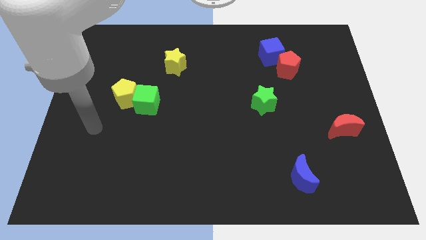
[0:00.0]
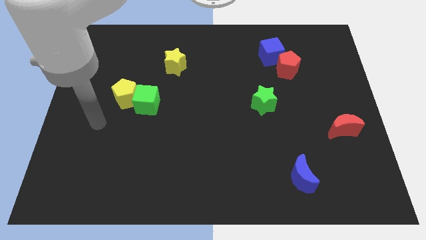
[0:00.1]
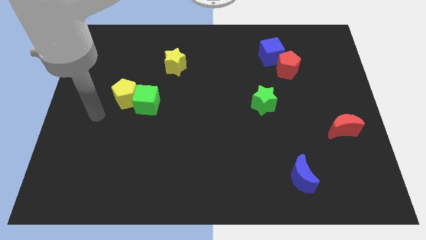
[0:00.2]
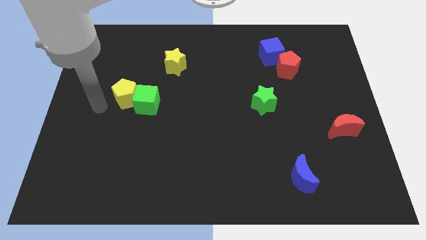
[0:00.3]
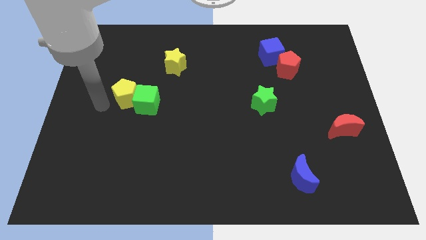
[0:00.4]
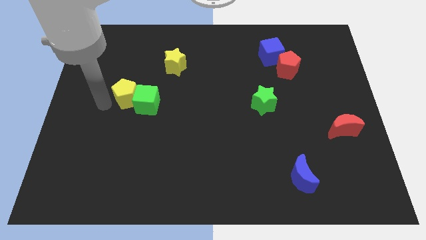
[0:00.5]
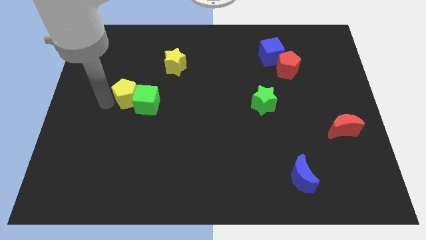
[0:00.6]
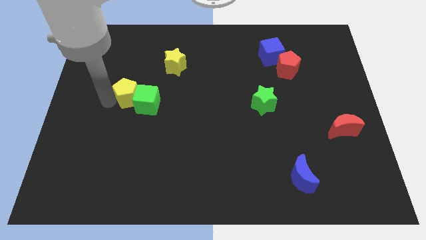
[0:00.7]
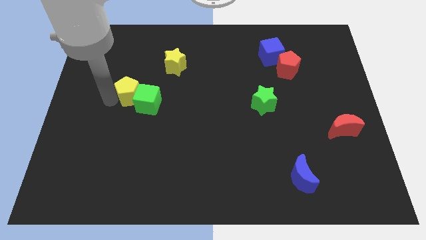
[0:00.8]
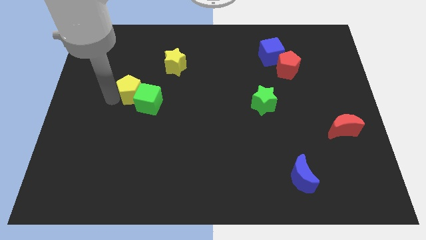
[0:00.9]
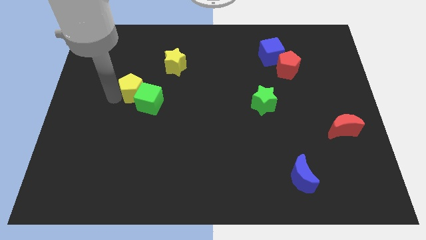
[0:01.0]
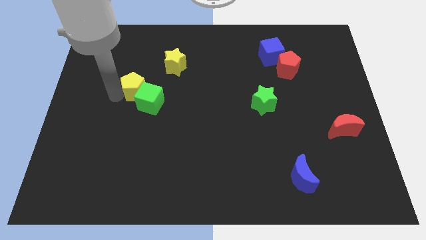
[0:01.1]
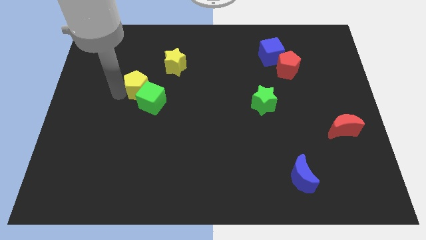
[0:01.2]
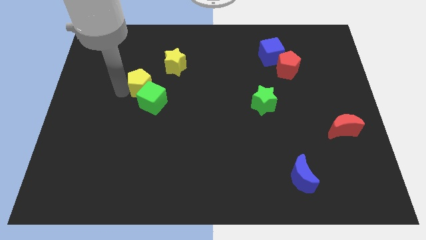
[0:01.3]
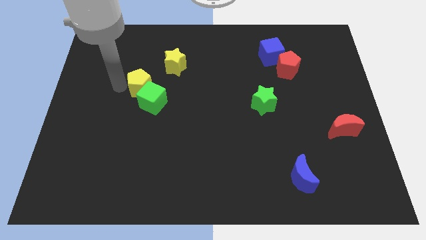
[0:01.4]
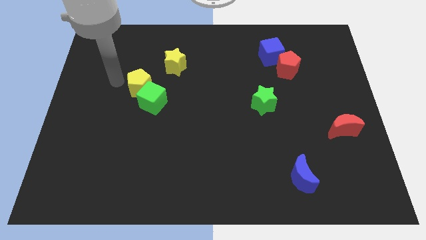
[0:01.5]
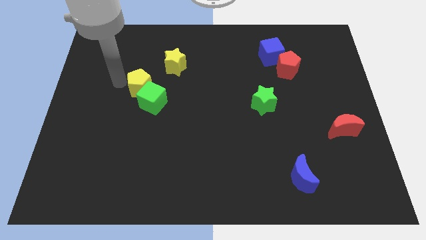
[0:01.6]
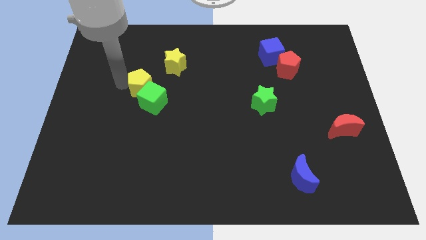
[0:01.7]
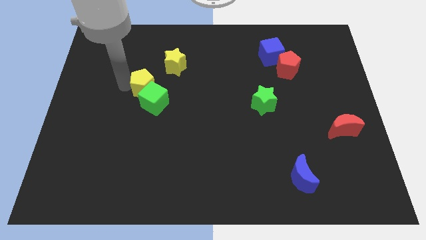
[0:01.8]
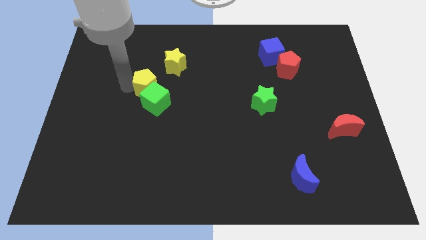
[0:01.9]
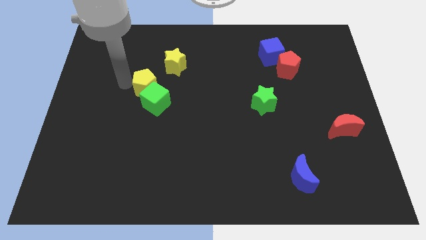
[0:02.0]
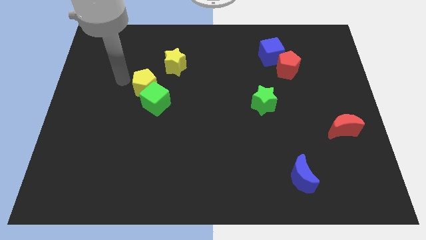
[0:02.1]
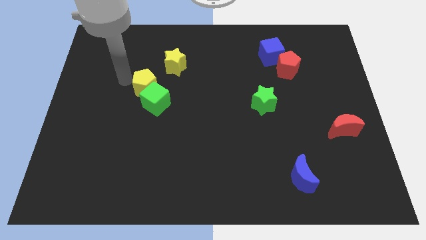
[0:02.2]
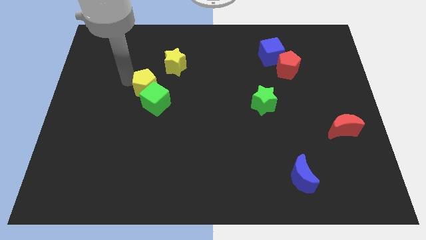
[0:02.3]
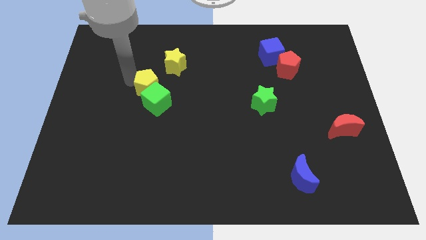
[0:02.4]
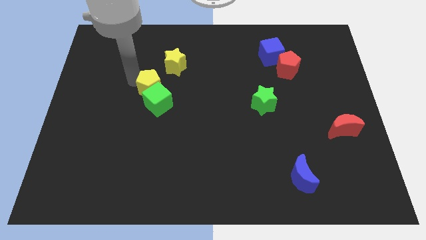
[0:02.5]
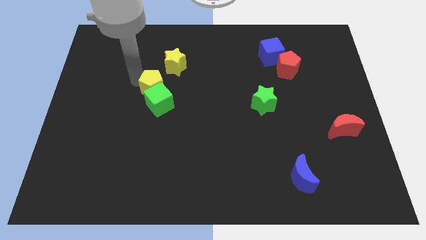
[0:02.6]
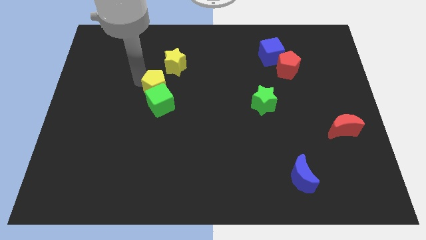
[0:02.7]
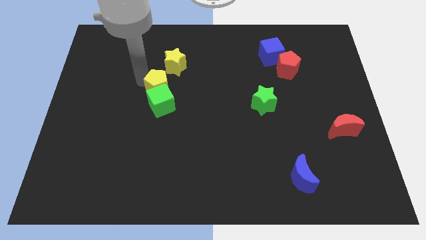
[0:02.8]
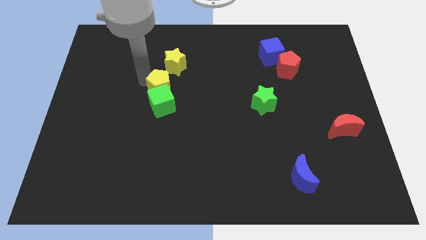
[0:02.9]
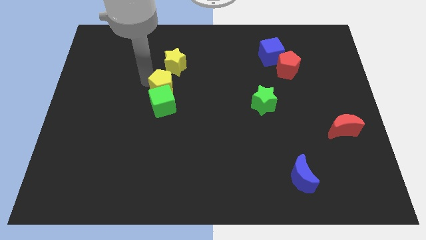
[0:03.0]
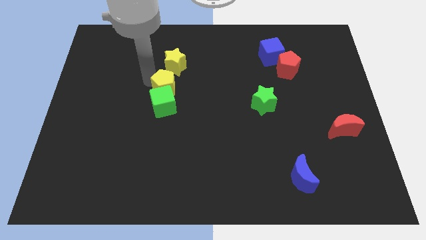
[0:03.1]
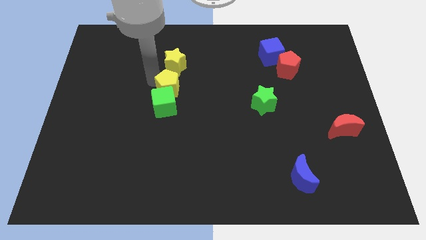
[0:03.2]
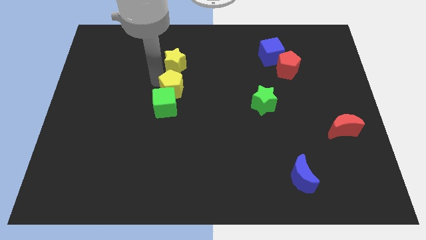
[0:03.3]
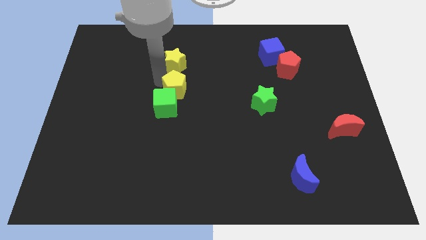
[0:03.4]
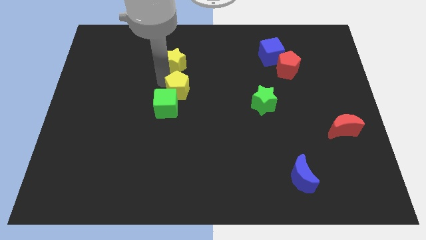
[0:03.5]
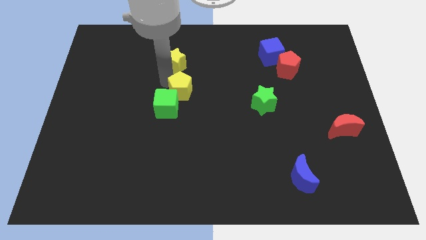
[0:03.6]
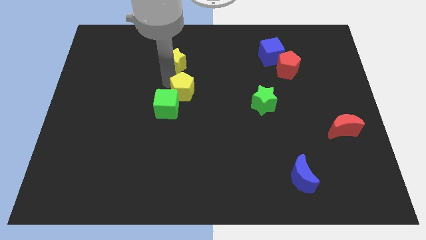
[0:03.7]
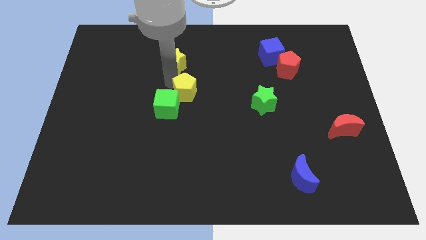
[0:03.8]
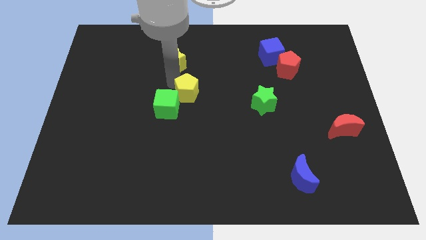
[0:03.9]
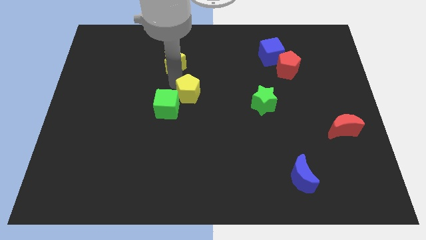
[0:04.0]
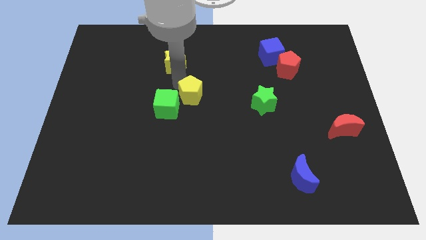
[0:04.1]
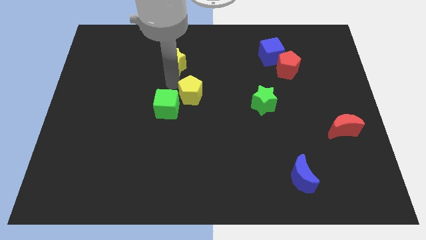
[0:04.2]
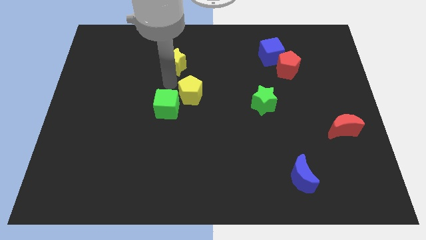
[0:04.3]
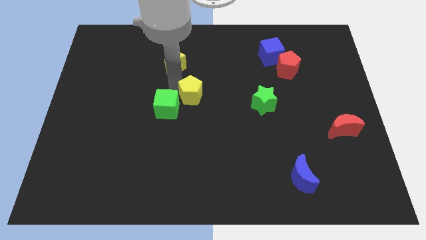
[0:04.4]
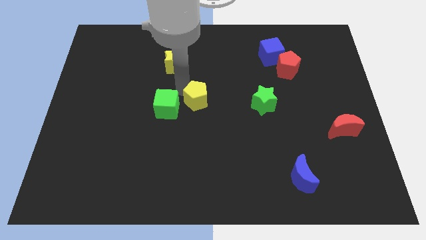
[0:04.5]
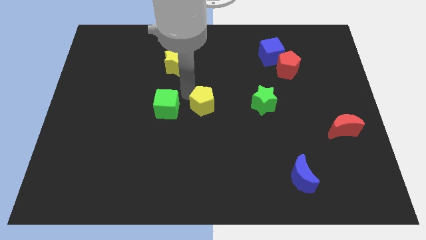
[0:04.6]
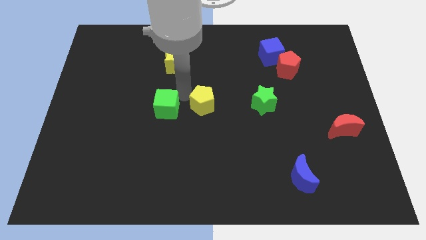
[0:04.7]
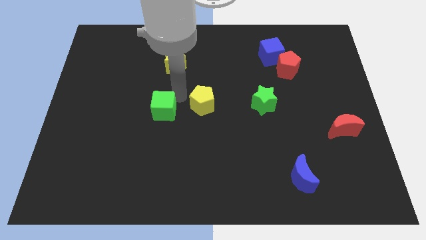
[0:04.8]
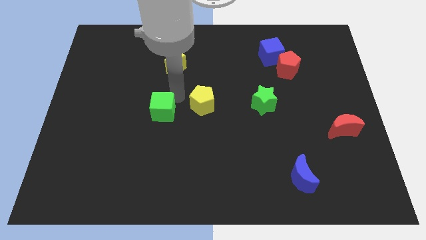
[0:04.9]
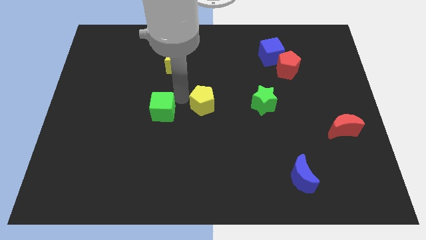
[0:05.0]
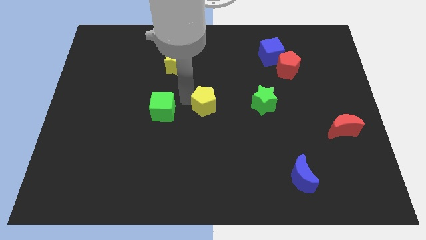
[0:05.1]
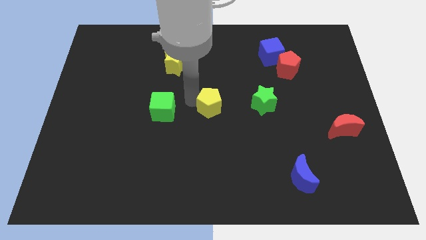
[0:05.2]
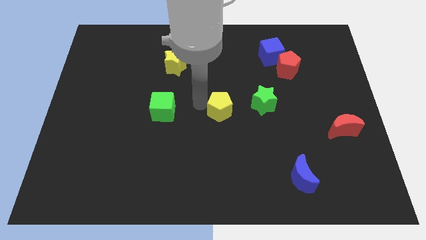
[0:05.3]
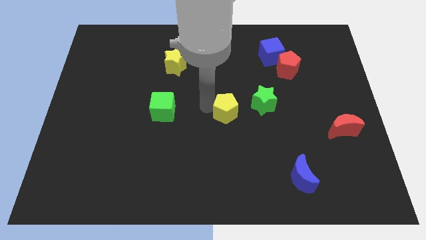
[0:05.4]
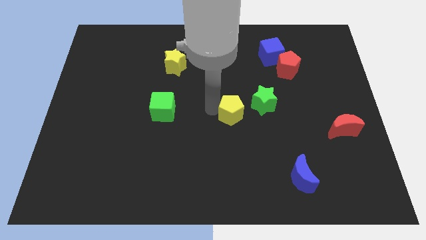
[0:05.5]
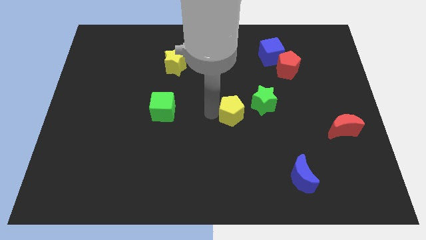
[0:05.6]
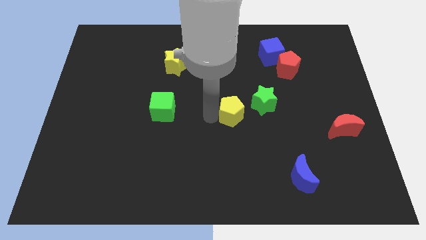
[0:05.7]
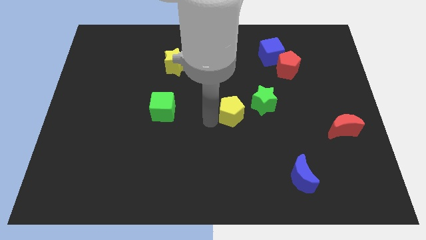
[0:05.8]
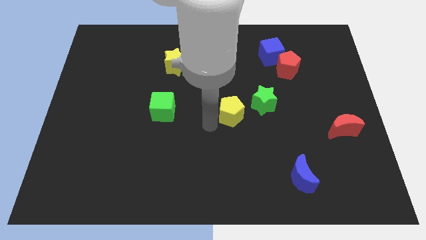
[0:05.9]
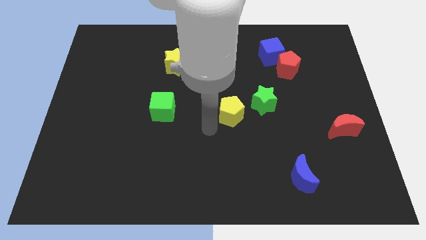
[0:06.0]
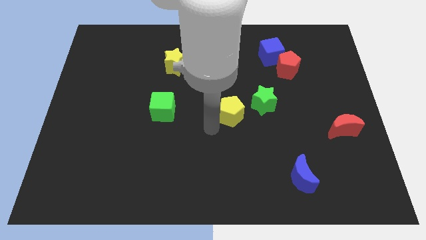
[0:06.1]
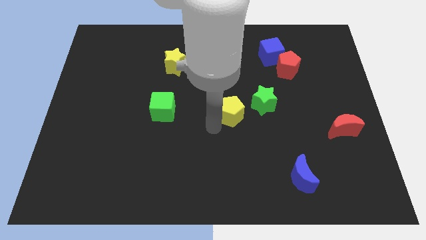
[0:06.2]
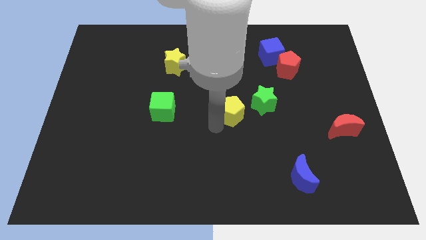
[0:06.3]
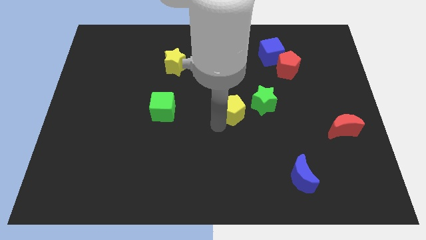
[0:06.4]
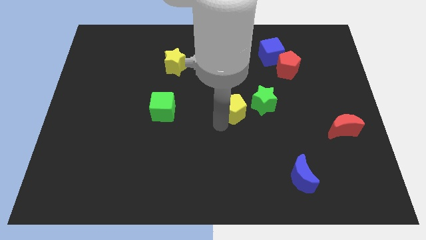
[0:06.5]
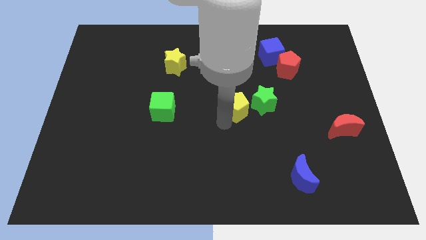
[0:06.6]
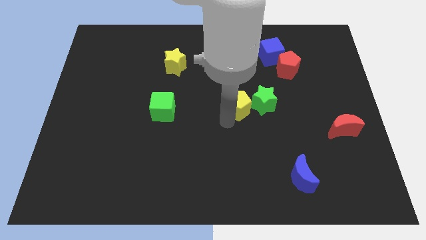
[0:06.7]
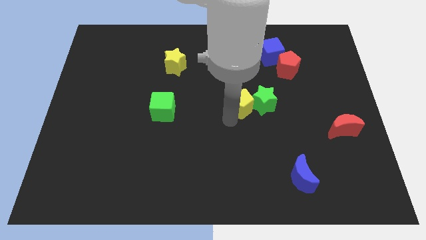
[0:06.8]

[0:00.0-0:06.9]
push the yellow pentagon to the green star

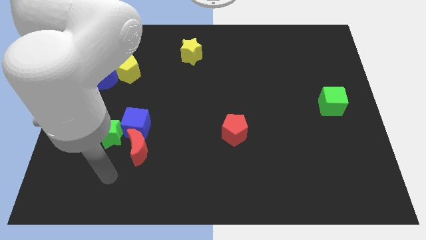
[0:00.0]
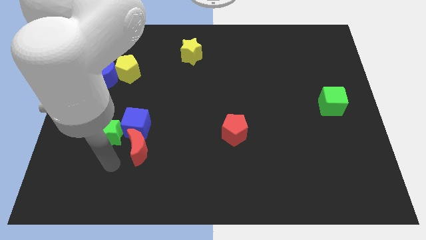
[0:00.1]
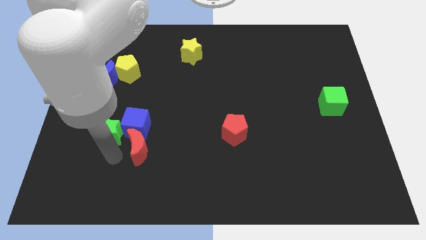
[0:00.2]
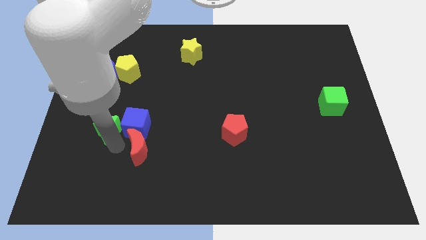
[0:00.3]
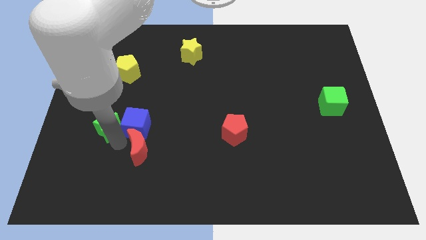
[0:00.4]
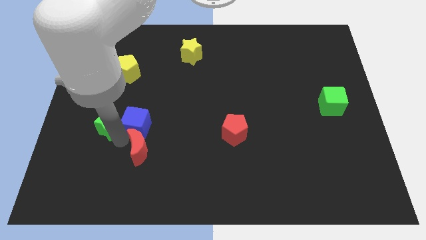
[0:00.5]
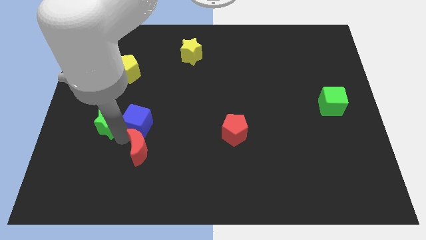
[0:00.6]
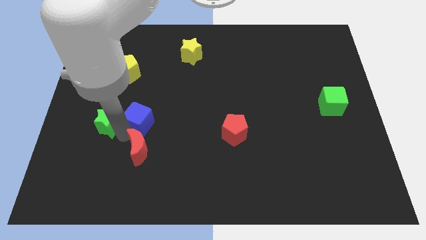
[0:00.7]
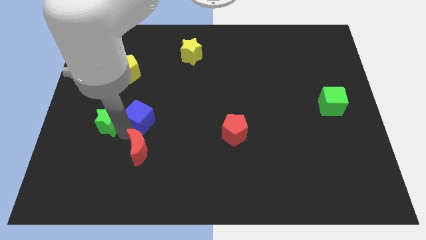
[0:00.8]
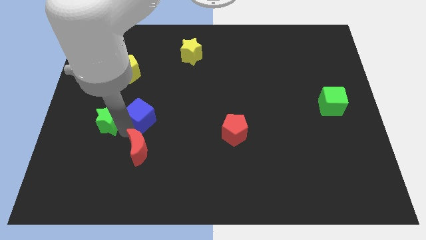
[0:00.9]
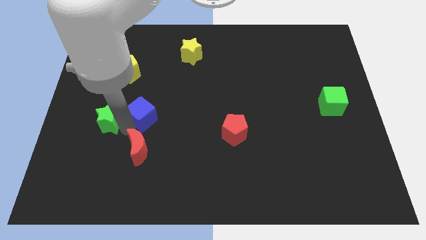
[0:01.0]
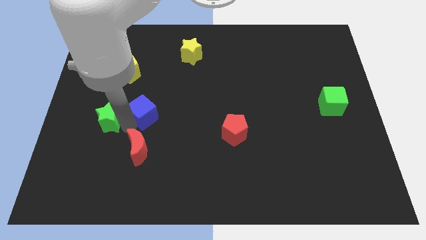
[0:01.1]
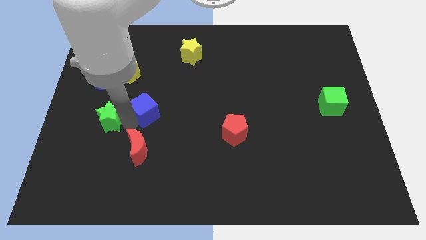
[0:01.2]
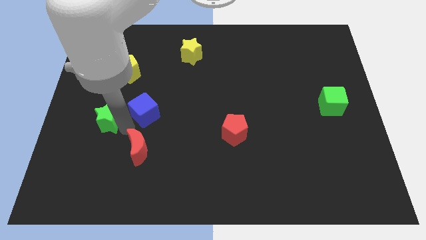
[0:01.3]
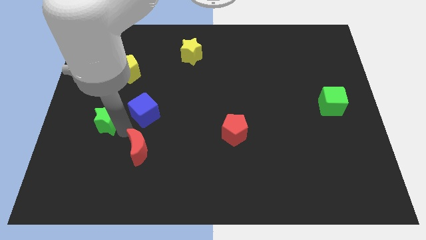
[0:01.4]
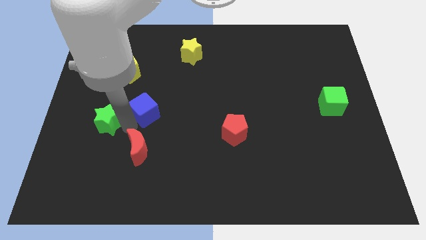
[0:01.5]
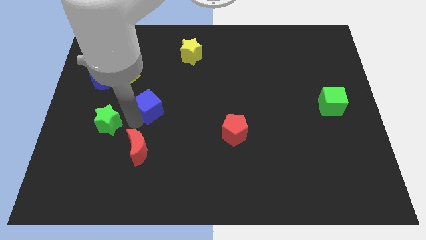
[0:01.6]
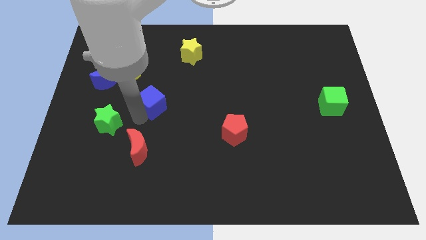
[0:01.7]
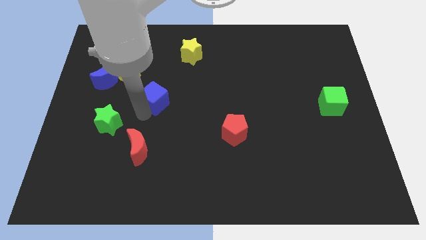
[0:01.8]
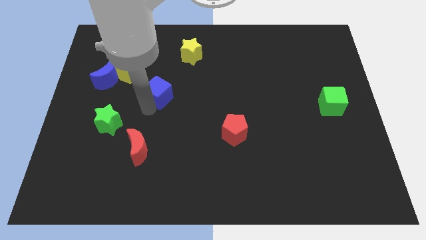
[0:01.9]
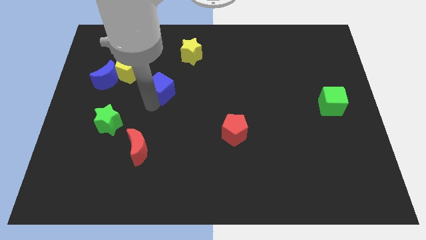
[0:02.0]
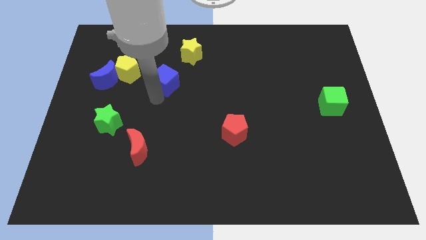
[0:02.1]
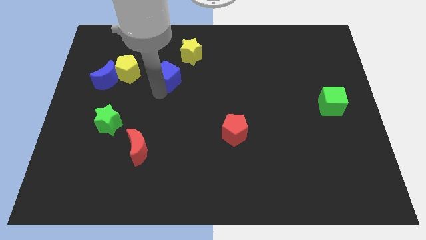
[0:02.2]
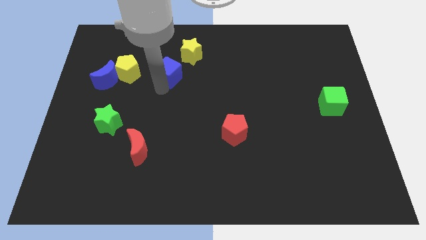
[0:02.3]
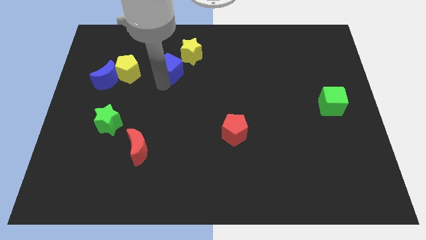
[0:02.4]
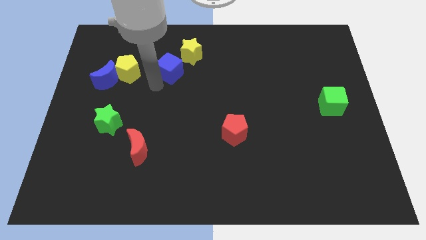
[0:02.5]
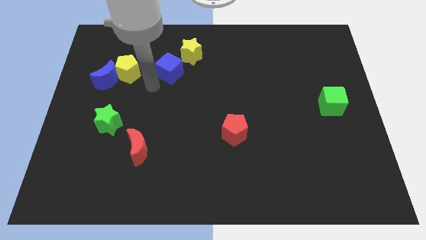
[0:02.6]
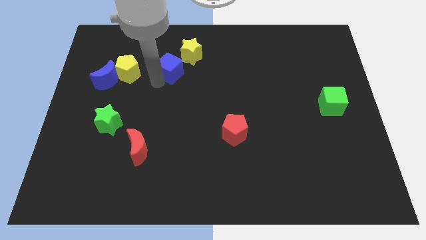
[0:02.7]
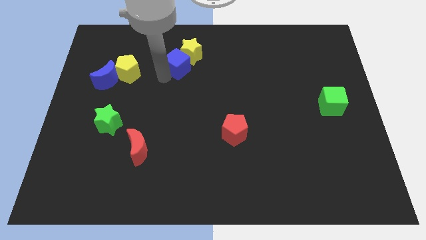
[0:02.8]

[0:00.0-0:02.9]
slide the blue cube to the yellow star
